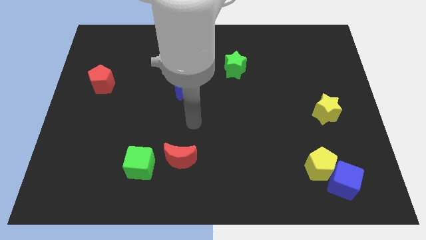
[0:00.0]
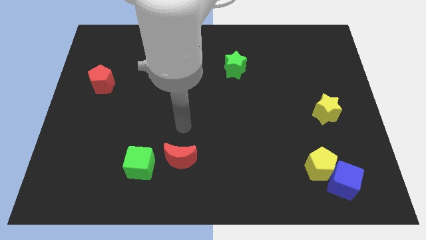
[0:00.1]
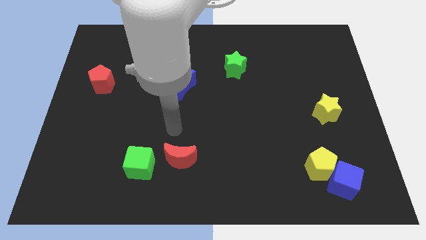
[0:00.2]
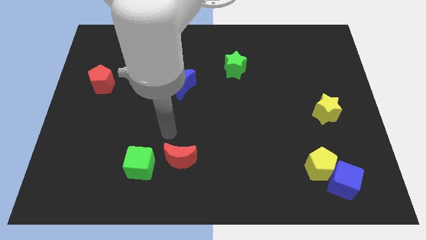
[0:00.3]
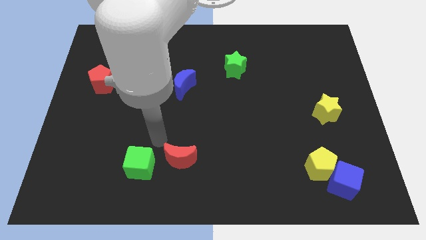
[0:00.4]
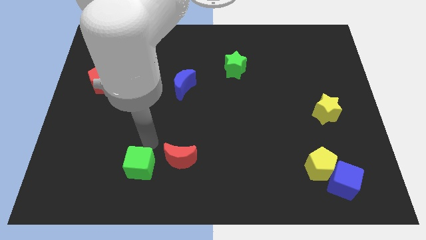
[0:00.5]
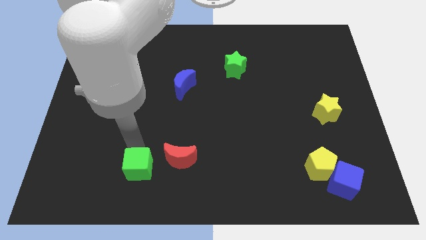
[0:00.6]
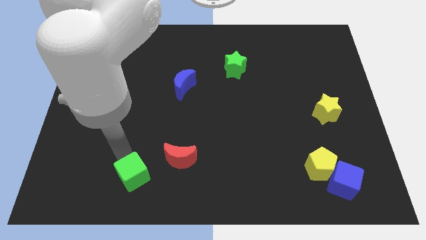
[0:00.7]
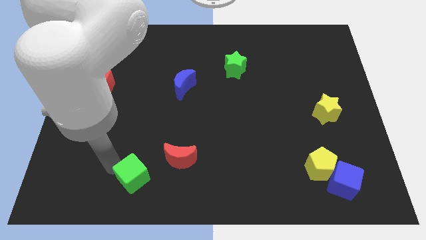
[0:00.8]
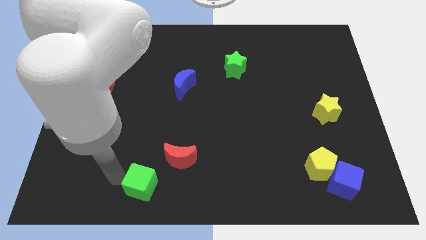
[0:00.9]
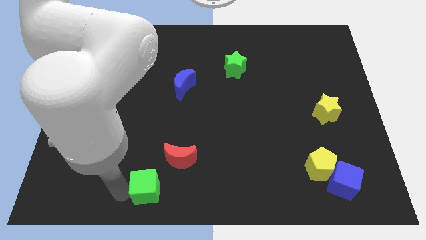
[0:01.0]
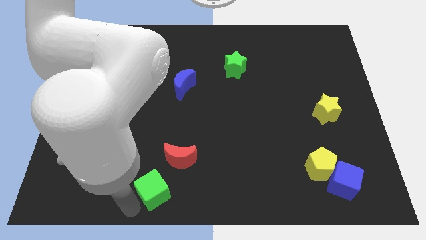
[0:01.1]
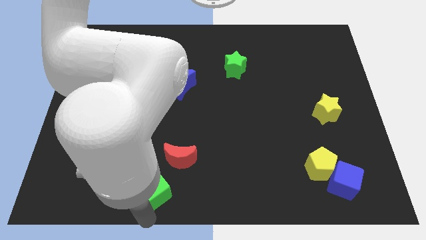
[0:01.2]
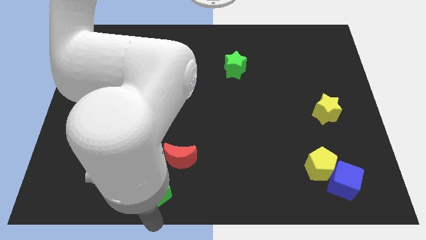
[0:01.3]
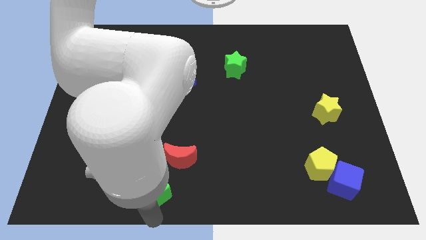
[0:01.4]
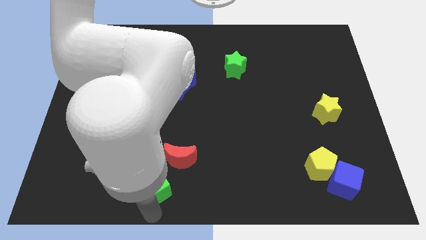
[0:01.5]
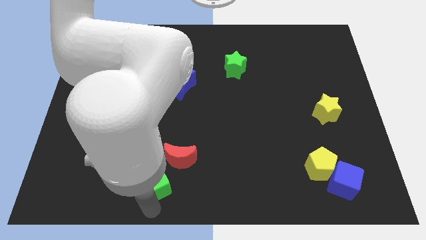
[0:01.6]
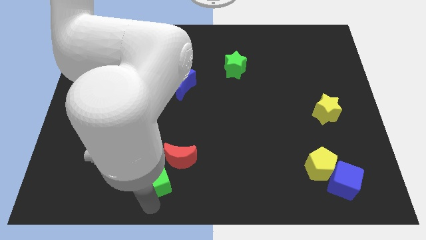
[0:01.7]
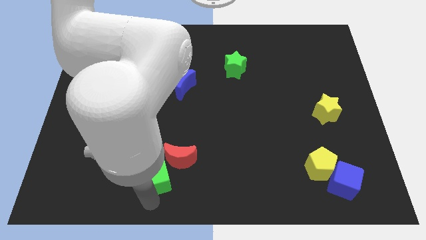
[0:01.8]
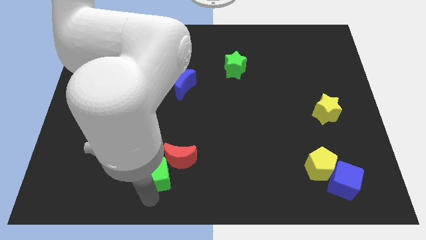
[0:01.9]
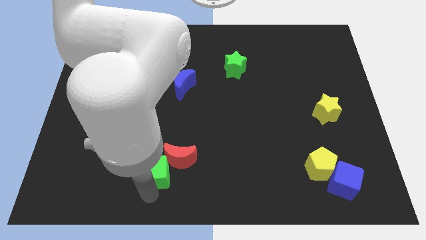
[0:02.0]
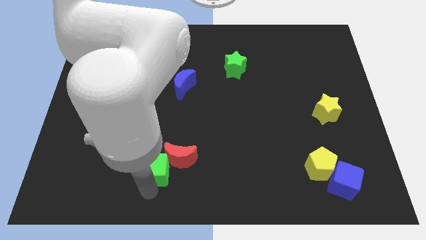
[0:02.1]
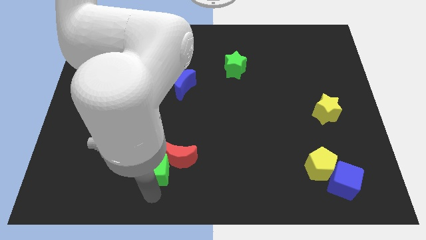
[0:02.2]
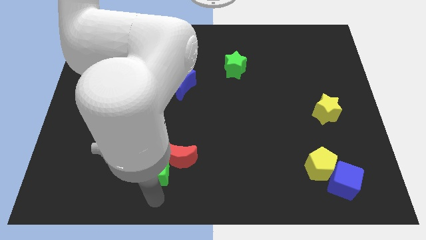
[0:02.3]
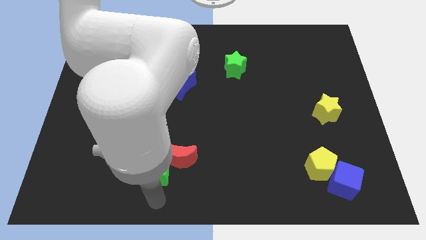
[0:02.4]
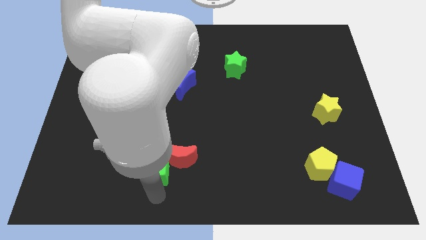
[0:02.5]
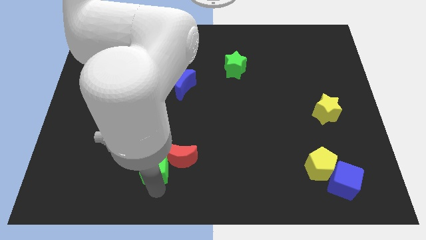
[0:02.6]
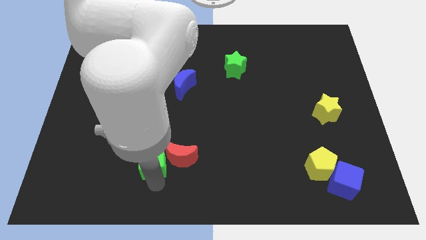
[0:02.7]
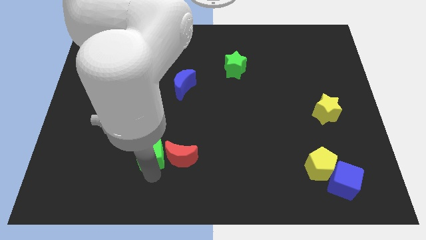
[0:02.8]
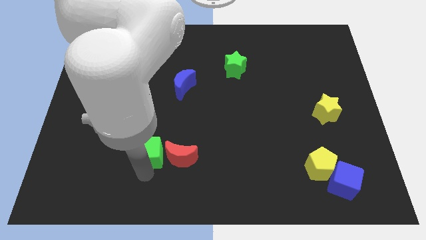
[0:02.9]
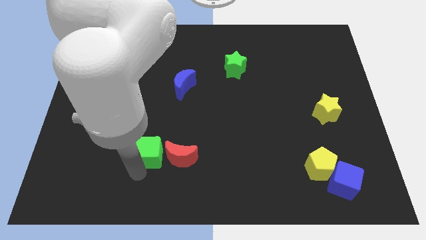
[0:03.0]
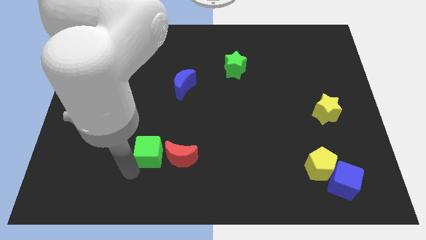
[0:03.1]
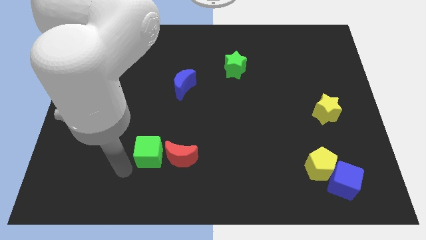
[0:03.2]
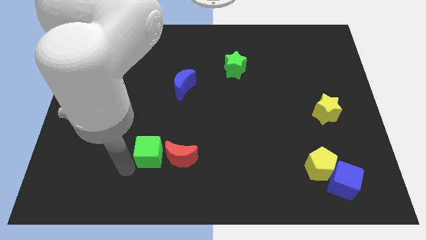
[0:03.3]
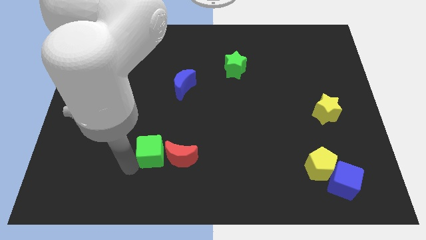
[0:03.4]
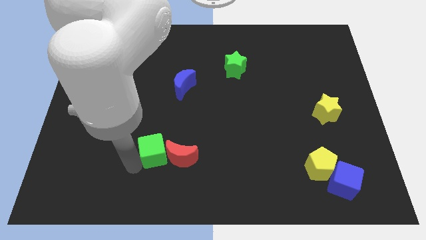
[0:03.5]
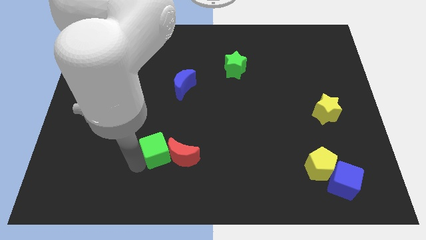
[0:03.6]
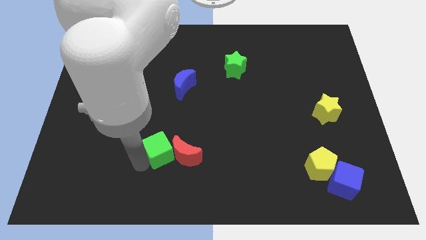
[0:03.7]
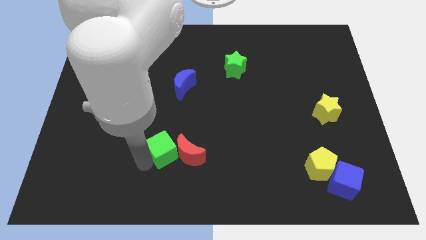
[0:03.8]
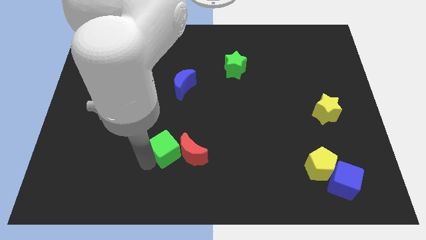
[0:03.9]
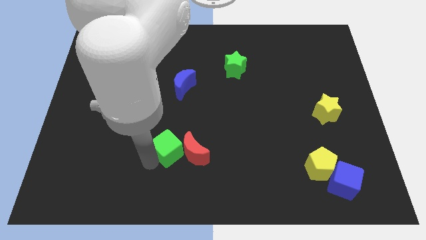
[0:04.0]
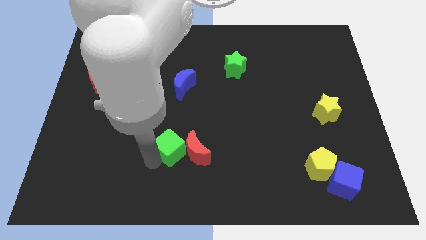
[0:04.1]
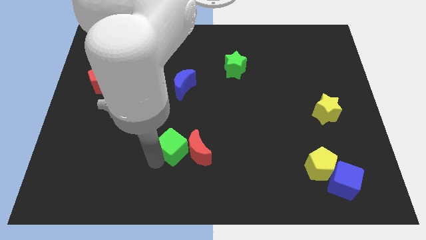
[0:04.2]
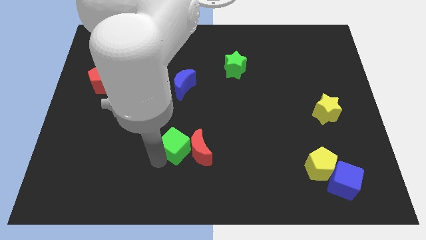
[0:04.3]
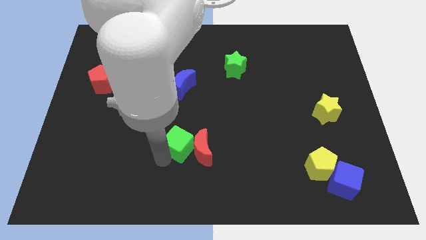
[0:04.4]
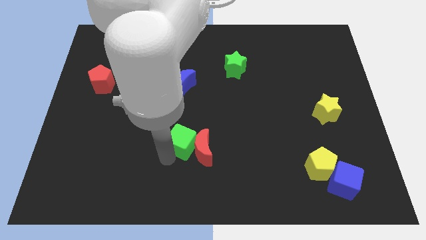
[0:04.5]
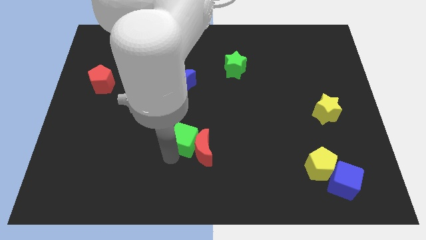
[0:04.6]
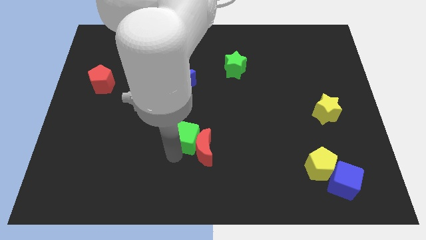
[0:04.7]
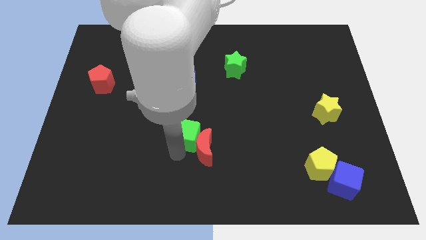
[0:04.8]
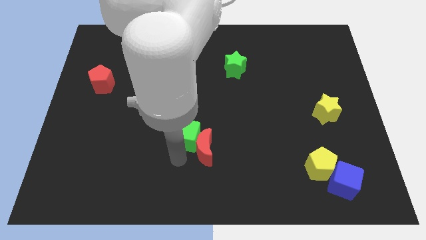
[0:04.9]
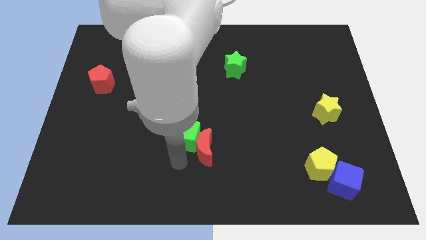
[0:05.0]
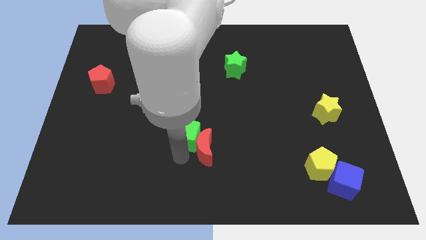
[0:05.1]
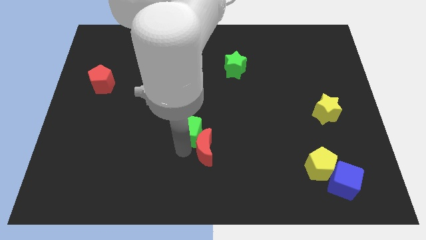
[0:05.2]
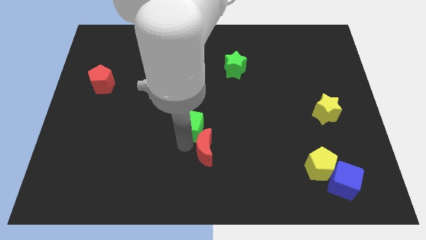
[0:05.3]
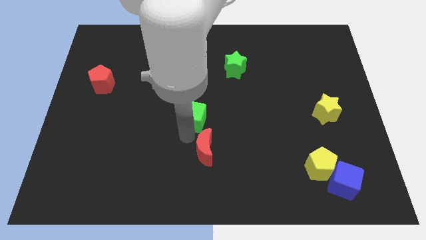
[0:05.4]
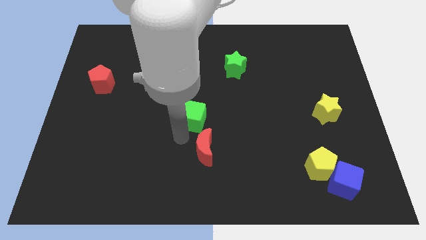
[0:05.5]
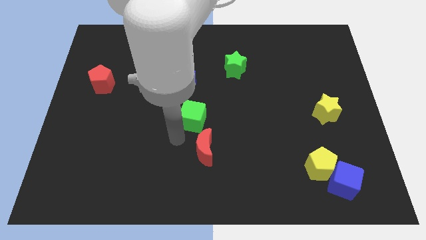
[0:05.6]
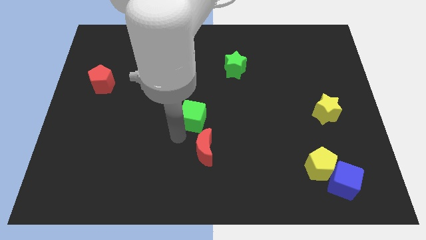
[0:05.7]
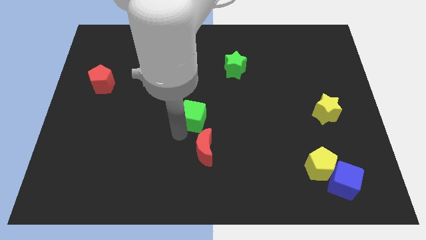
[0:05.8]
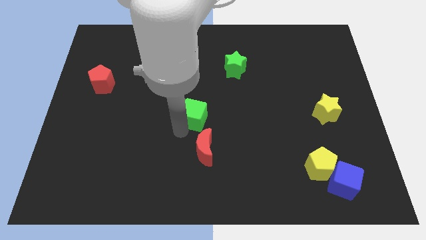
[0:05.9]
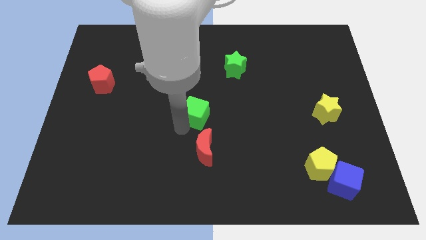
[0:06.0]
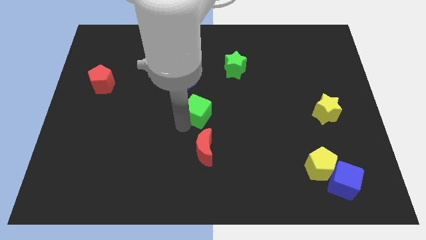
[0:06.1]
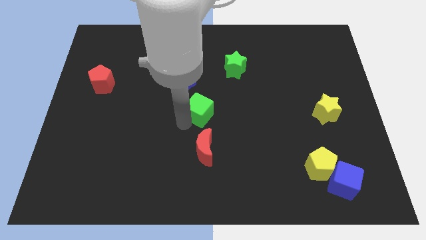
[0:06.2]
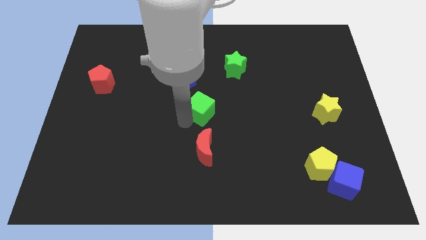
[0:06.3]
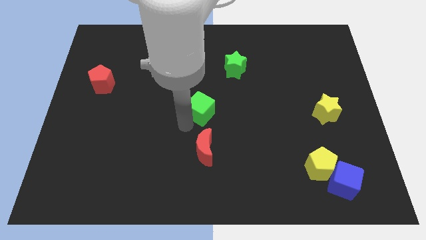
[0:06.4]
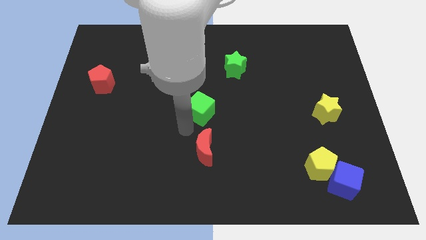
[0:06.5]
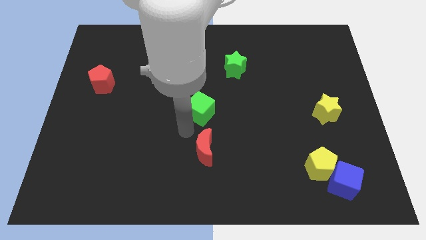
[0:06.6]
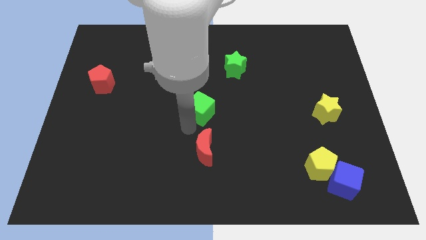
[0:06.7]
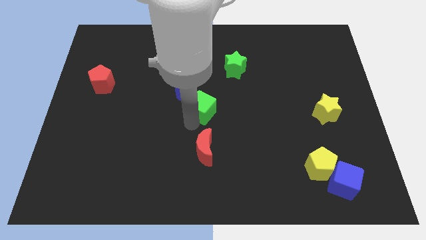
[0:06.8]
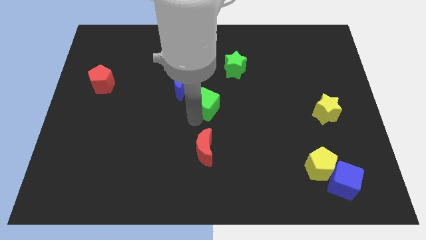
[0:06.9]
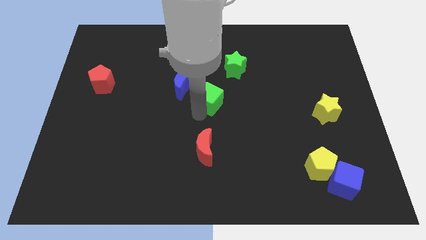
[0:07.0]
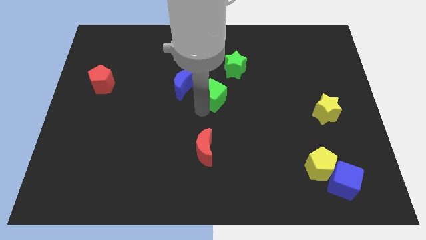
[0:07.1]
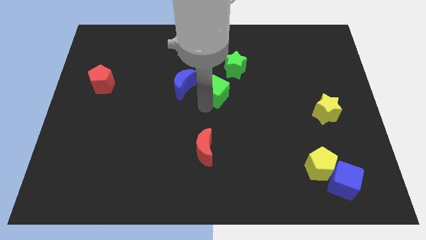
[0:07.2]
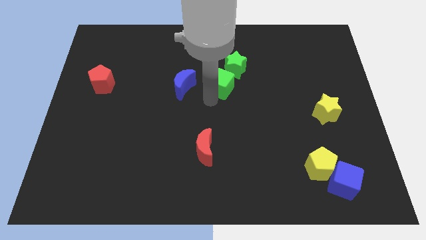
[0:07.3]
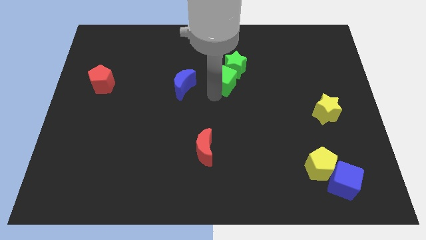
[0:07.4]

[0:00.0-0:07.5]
move the green cube next to the green star
